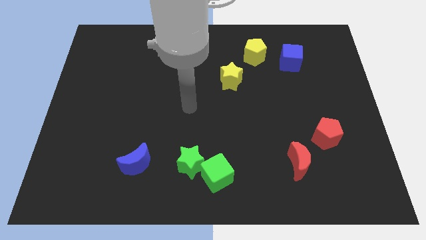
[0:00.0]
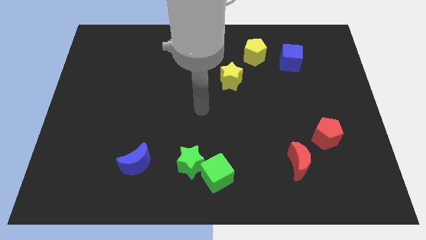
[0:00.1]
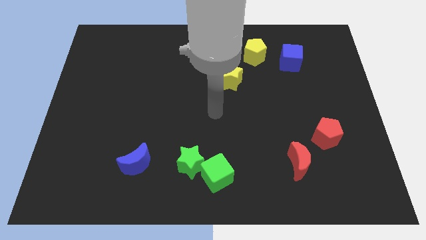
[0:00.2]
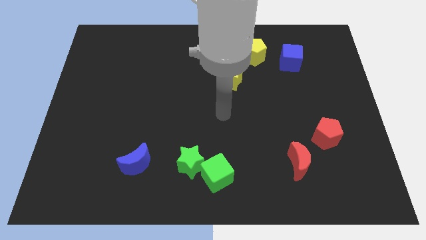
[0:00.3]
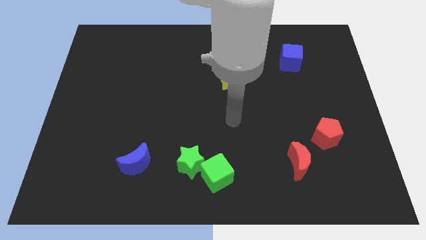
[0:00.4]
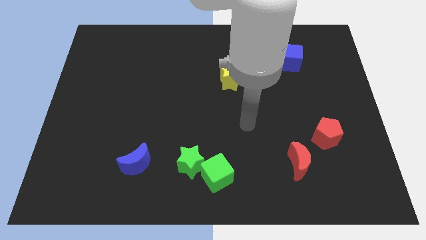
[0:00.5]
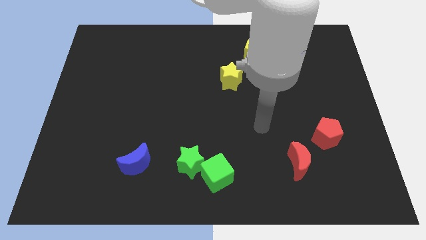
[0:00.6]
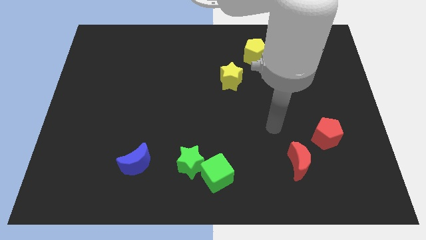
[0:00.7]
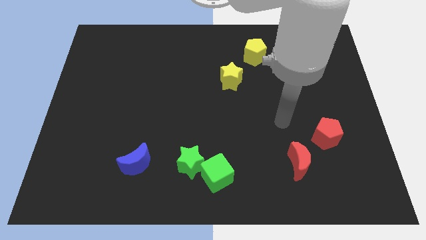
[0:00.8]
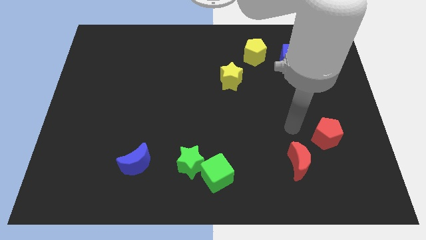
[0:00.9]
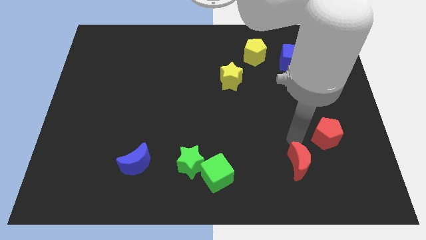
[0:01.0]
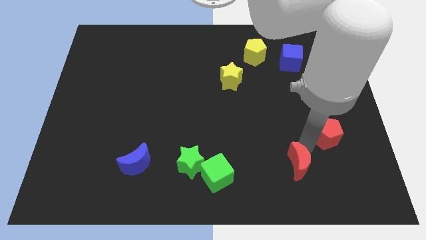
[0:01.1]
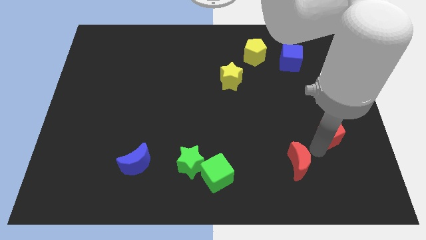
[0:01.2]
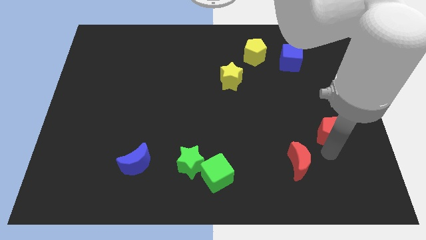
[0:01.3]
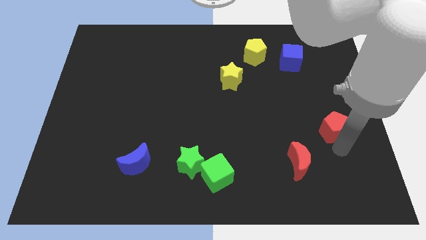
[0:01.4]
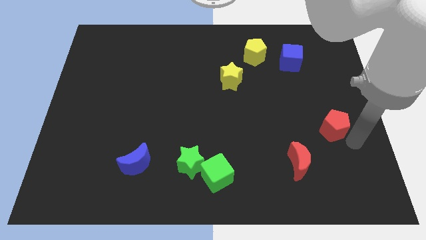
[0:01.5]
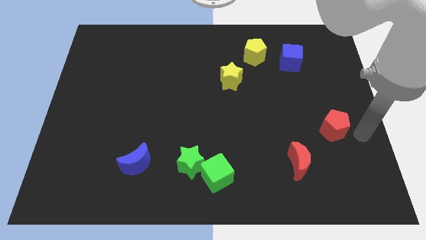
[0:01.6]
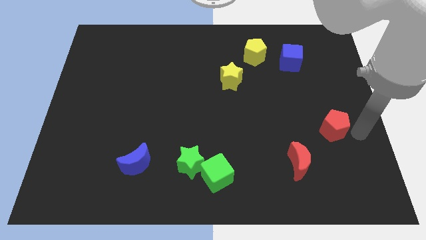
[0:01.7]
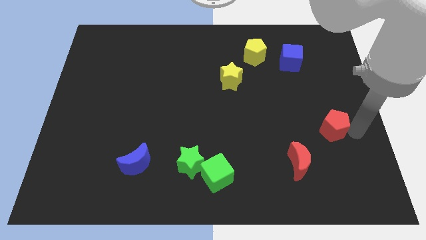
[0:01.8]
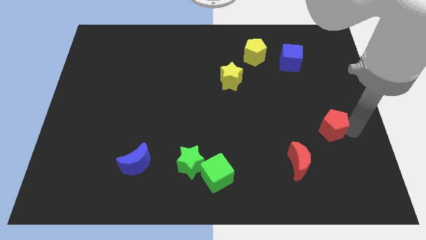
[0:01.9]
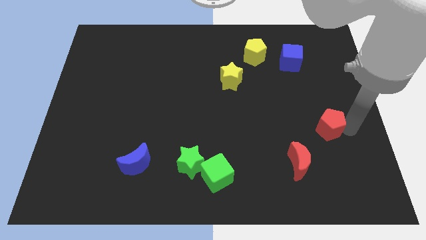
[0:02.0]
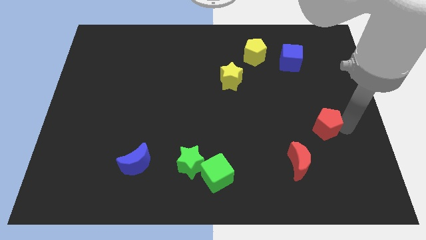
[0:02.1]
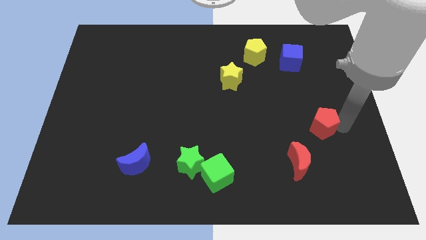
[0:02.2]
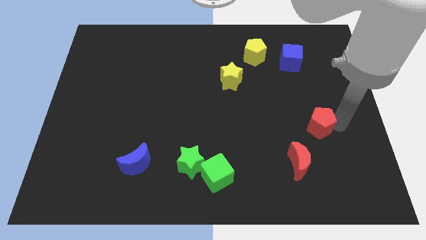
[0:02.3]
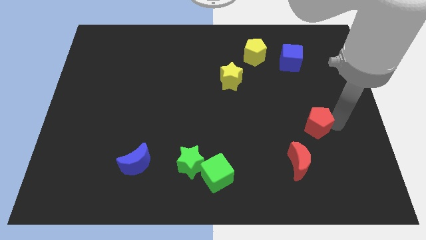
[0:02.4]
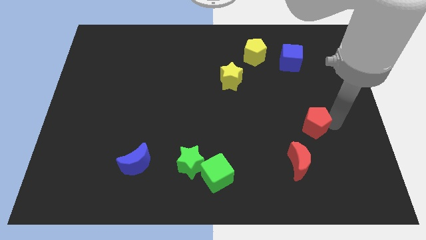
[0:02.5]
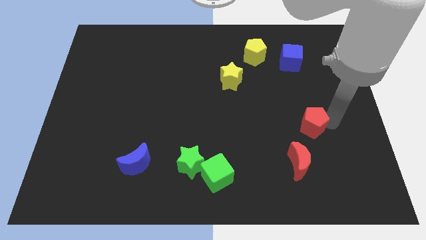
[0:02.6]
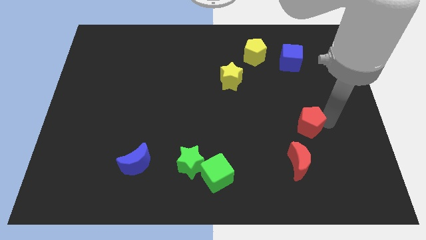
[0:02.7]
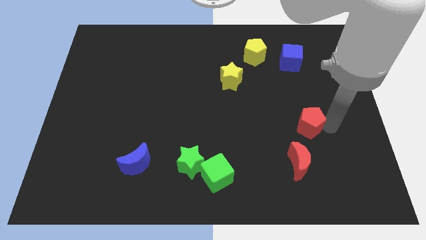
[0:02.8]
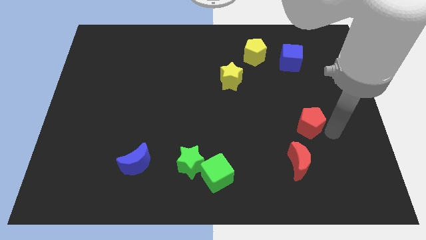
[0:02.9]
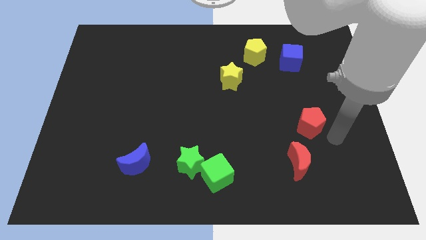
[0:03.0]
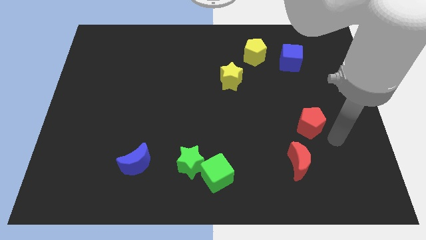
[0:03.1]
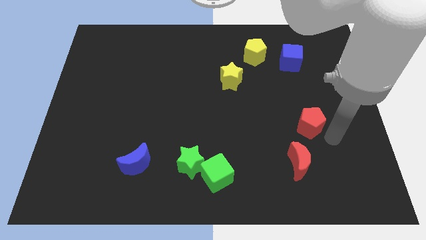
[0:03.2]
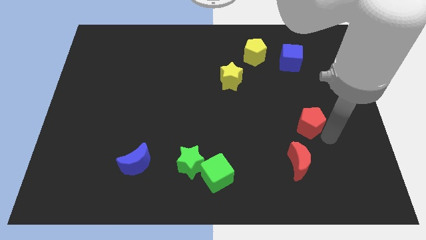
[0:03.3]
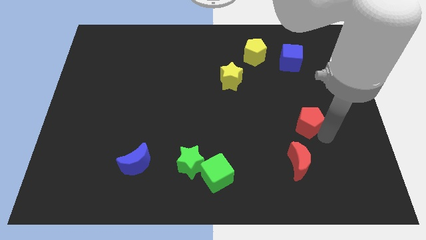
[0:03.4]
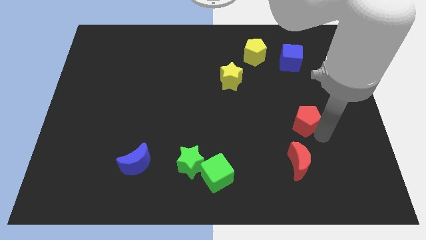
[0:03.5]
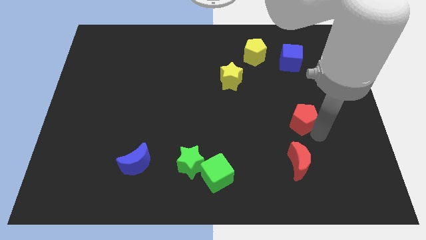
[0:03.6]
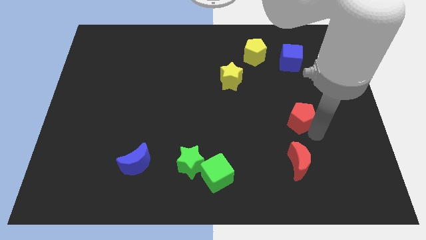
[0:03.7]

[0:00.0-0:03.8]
push the red pentagon upwards and to the left somewhat

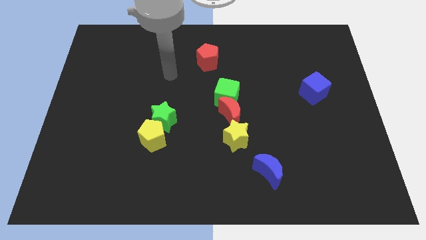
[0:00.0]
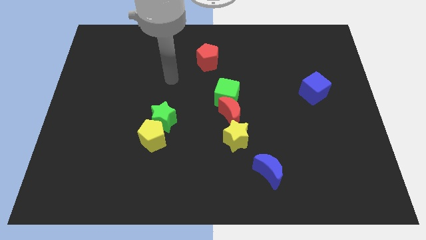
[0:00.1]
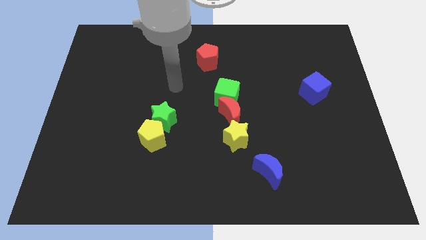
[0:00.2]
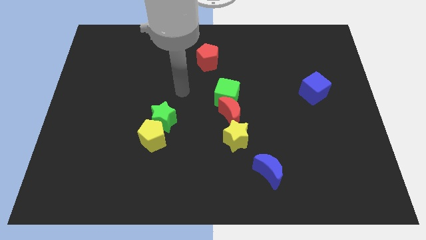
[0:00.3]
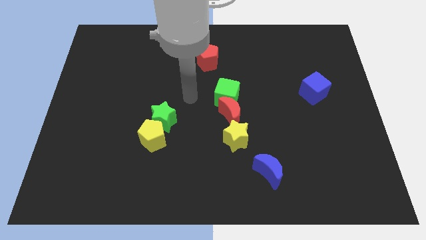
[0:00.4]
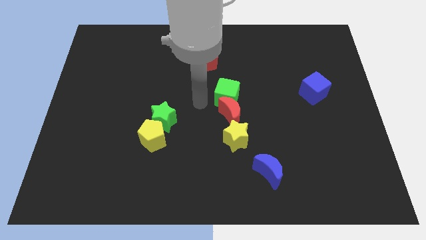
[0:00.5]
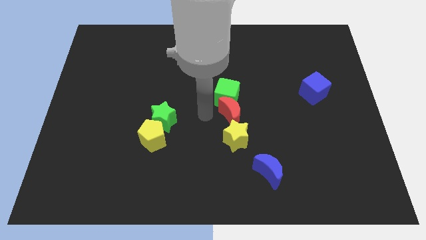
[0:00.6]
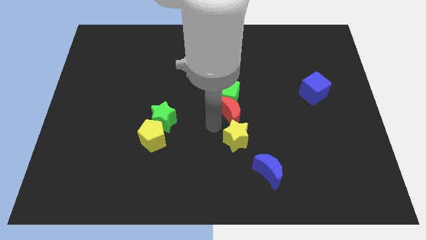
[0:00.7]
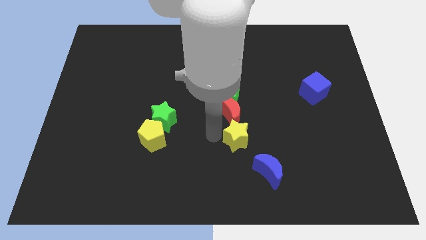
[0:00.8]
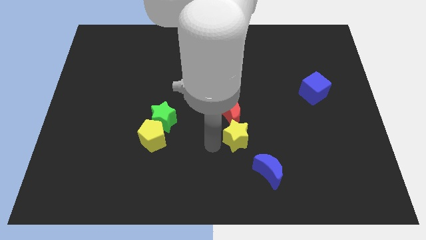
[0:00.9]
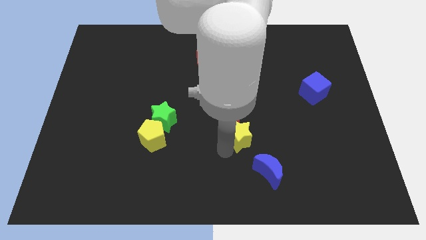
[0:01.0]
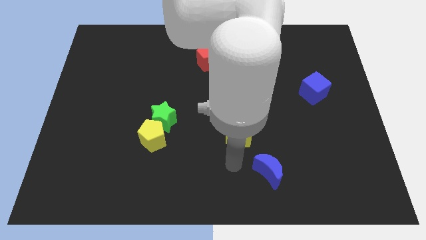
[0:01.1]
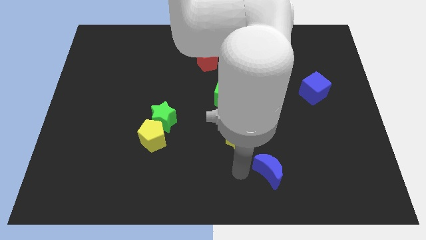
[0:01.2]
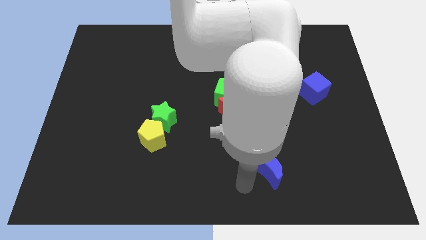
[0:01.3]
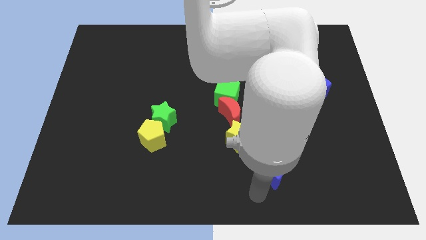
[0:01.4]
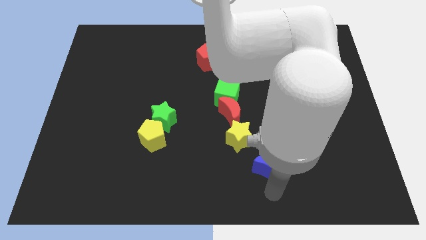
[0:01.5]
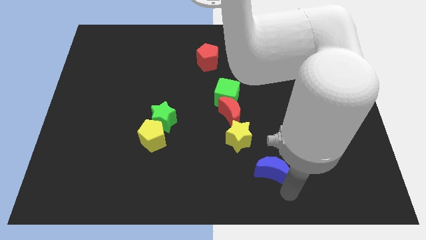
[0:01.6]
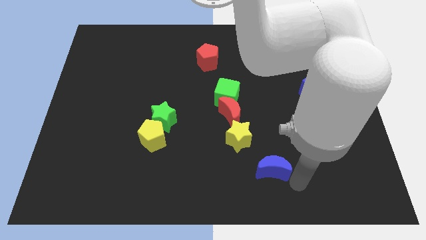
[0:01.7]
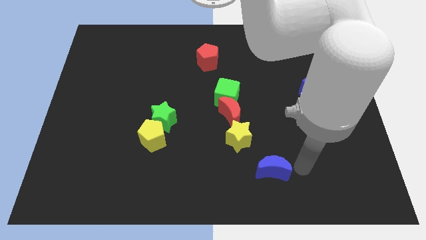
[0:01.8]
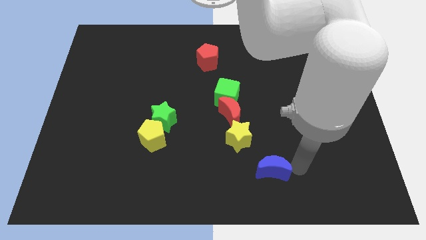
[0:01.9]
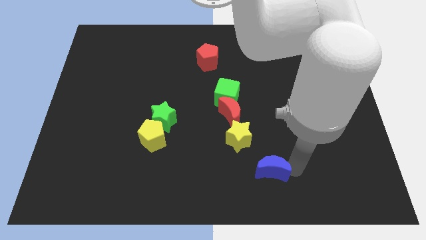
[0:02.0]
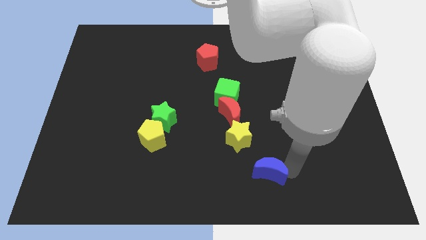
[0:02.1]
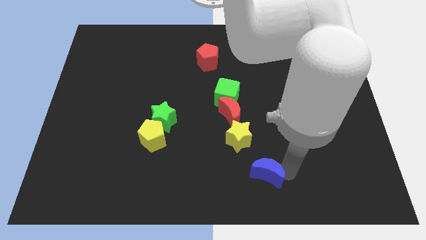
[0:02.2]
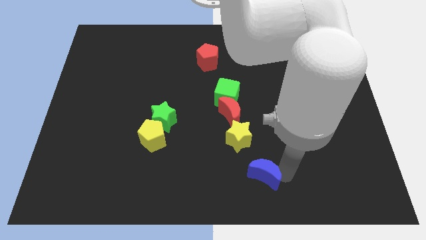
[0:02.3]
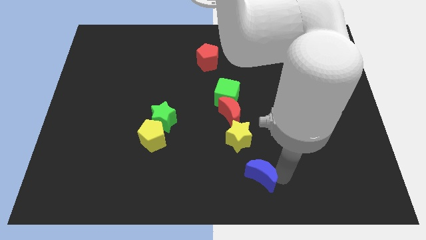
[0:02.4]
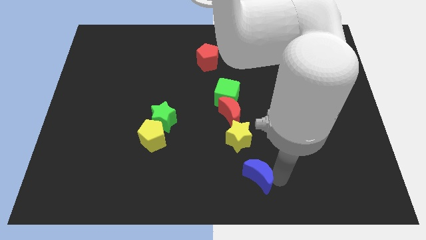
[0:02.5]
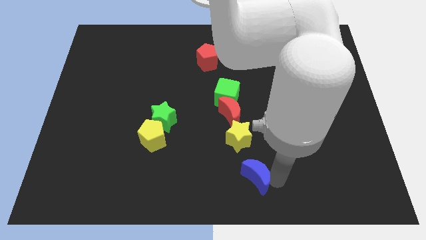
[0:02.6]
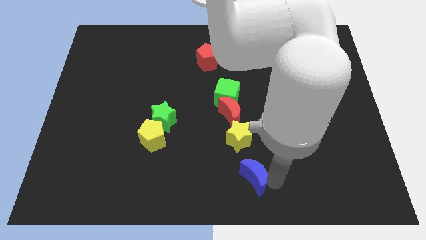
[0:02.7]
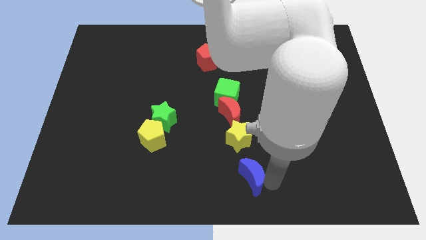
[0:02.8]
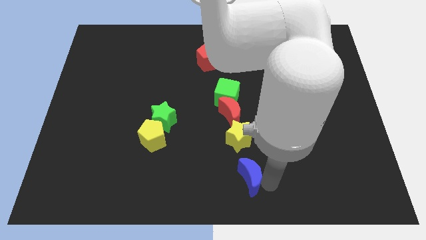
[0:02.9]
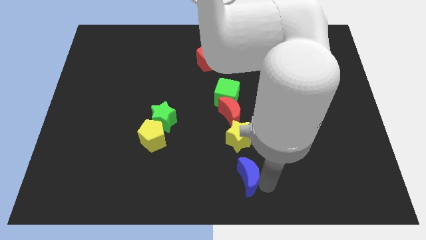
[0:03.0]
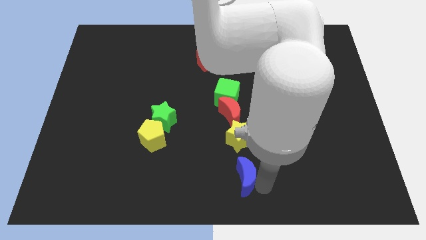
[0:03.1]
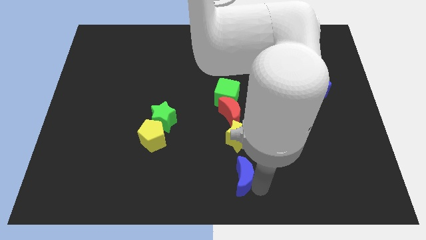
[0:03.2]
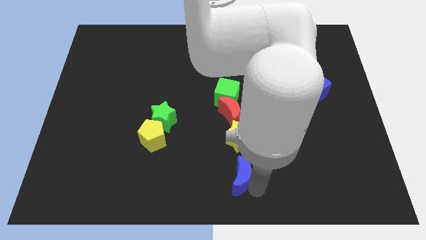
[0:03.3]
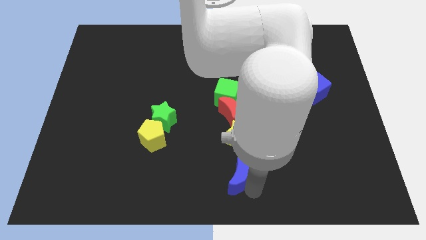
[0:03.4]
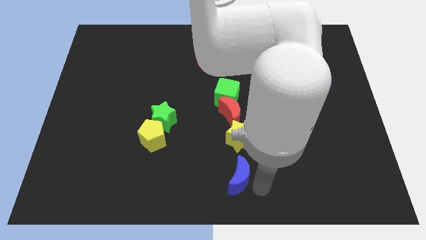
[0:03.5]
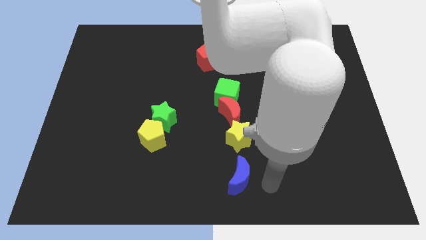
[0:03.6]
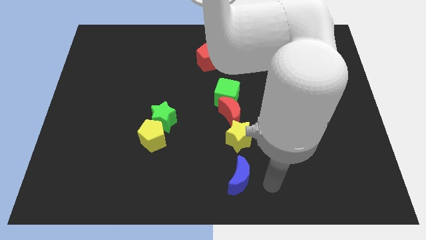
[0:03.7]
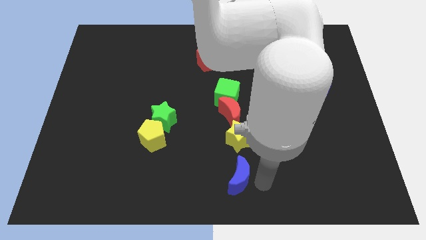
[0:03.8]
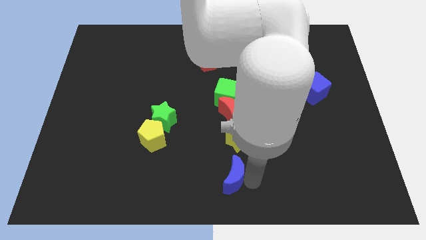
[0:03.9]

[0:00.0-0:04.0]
slightly push the blue moon to the left

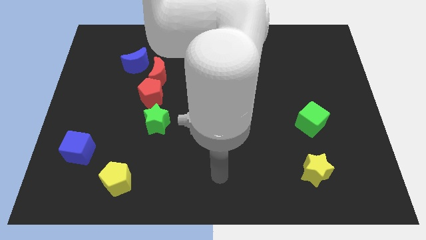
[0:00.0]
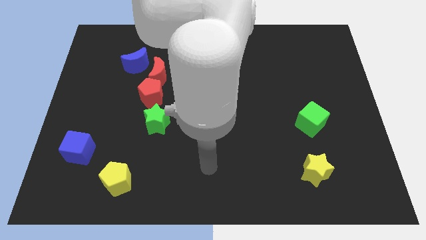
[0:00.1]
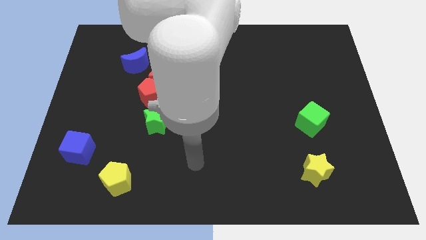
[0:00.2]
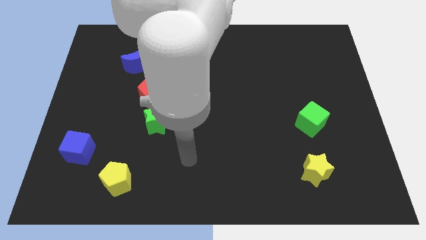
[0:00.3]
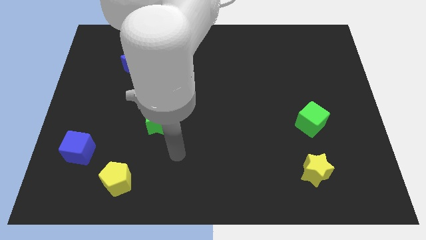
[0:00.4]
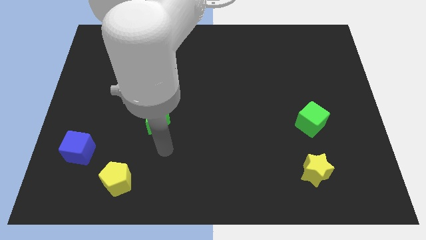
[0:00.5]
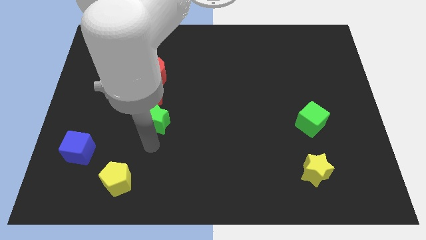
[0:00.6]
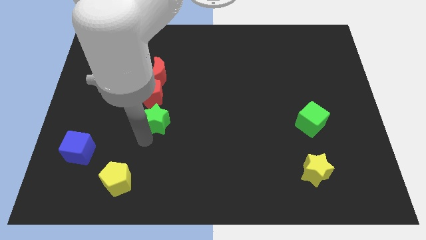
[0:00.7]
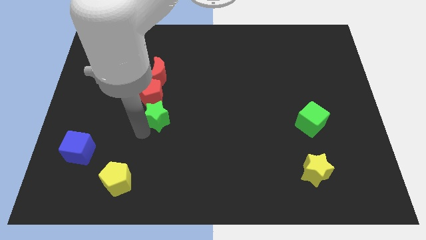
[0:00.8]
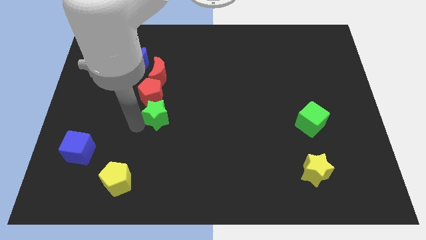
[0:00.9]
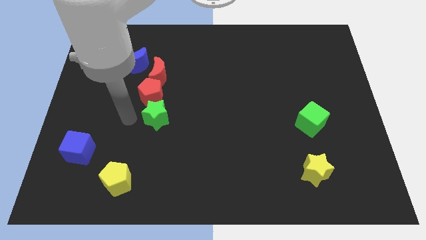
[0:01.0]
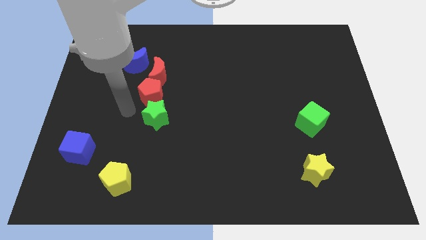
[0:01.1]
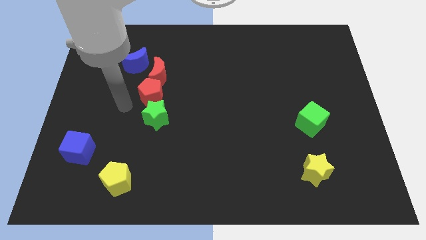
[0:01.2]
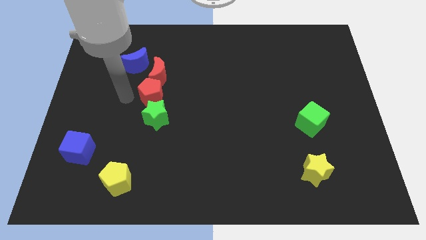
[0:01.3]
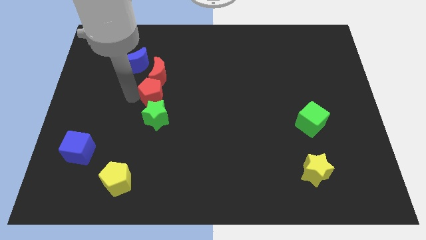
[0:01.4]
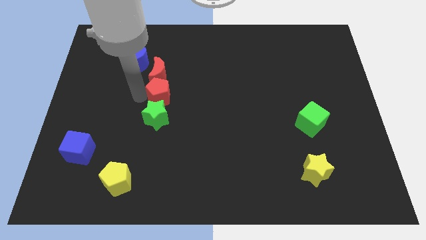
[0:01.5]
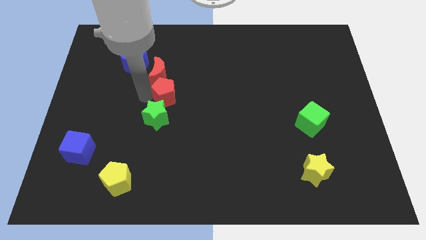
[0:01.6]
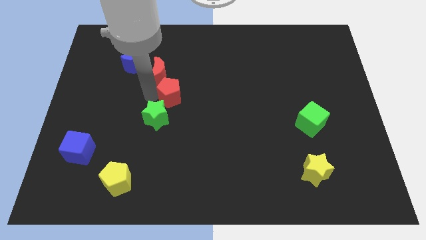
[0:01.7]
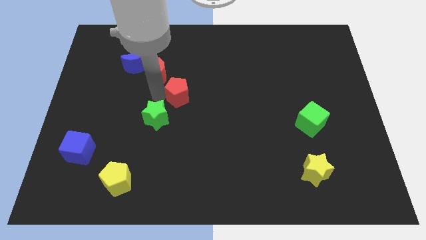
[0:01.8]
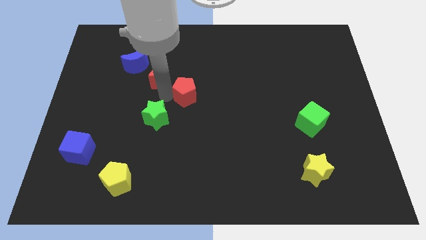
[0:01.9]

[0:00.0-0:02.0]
move the red pentagon to the right somewhat
